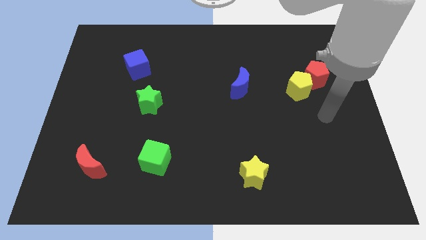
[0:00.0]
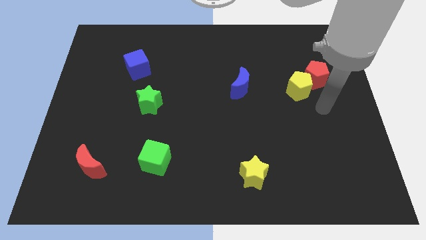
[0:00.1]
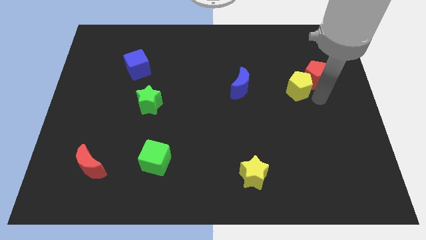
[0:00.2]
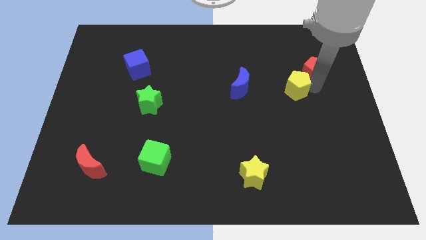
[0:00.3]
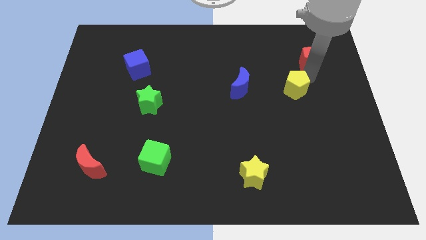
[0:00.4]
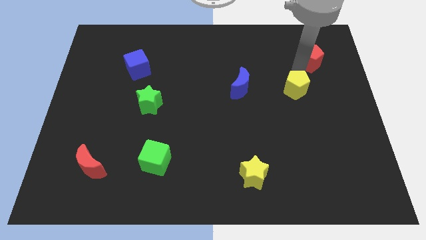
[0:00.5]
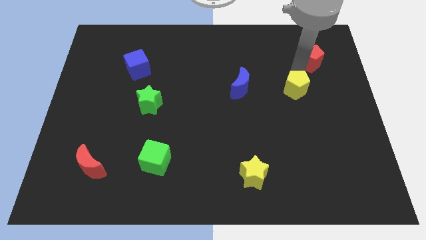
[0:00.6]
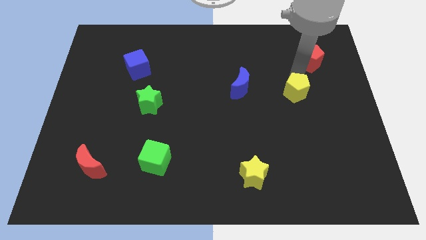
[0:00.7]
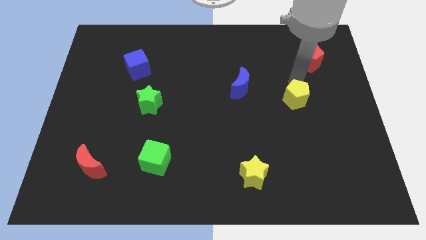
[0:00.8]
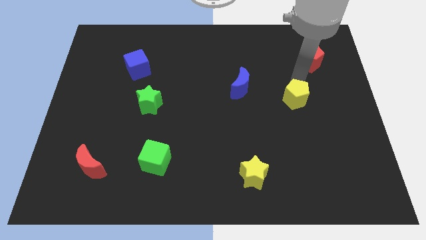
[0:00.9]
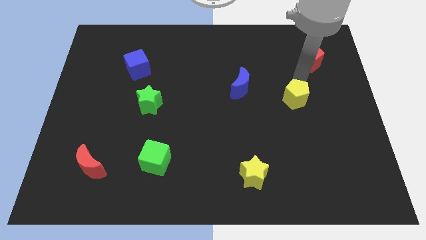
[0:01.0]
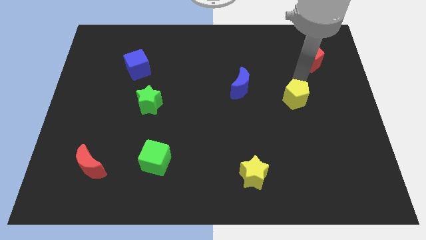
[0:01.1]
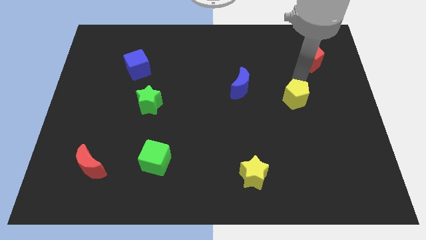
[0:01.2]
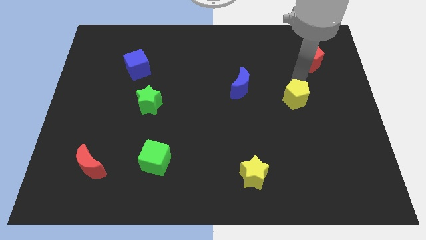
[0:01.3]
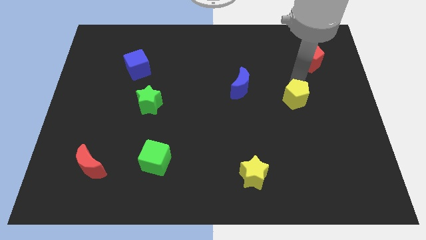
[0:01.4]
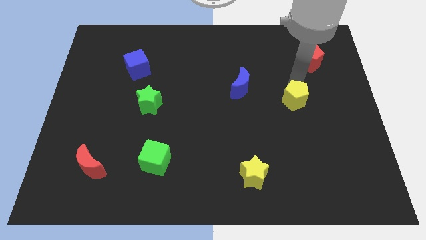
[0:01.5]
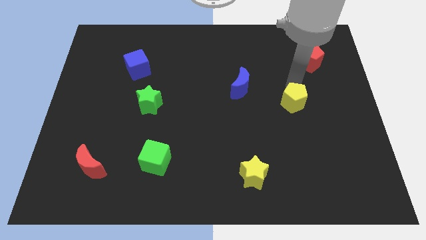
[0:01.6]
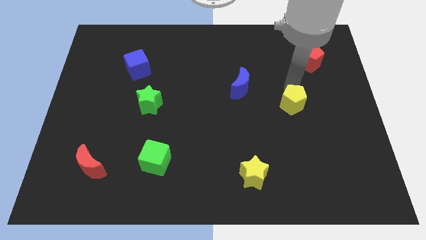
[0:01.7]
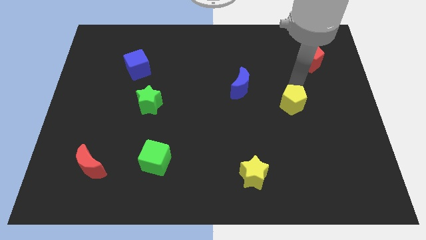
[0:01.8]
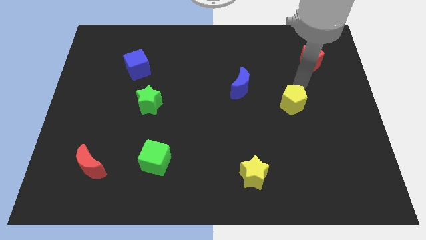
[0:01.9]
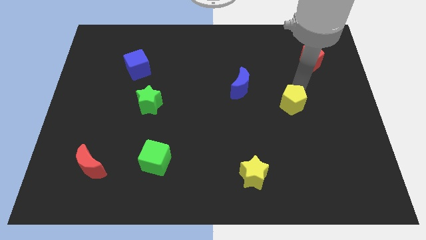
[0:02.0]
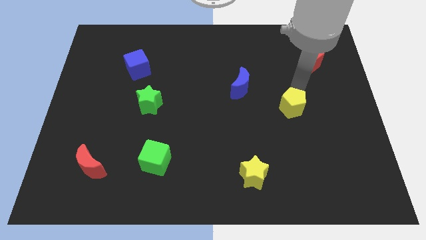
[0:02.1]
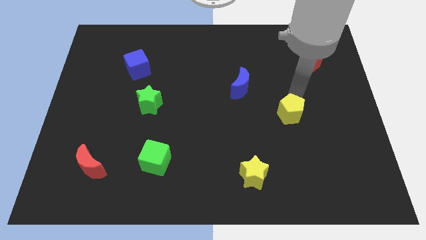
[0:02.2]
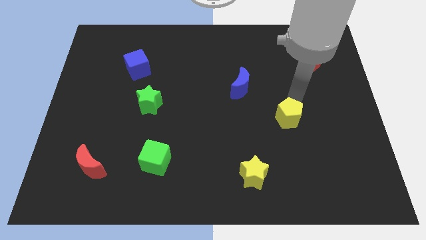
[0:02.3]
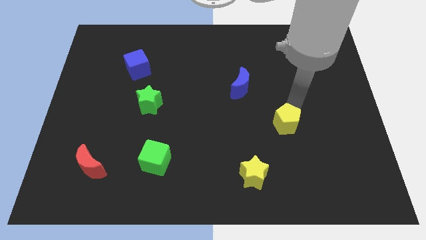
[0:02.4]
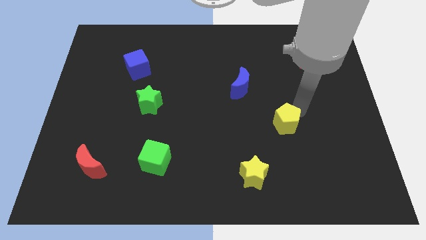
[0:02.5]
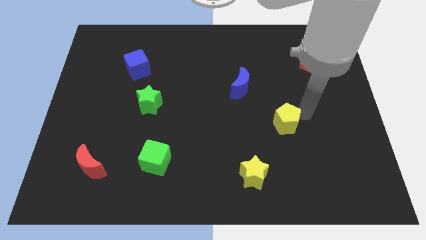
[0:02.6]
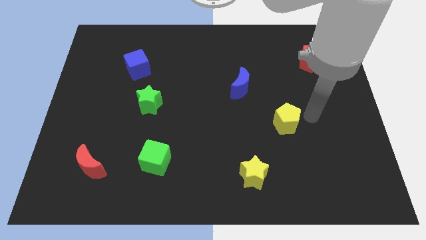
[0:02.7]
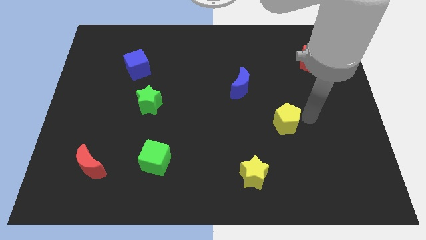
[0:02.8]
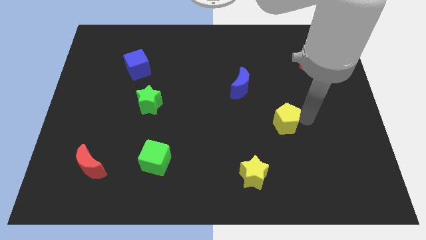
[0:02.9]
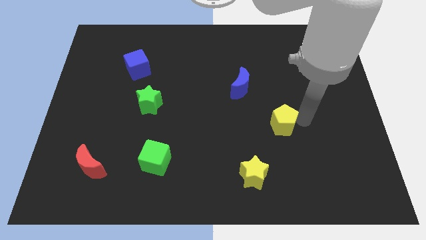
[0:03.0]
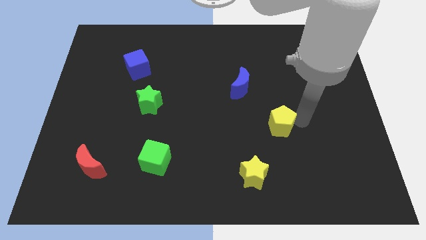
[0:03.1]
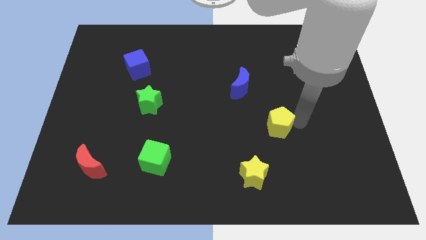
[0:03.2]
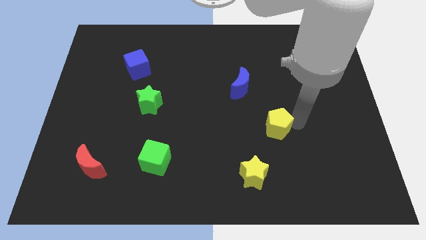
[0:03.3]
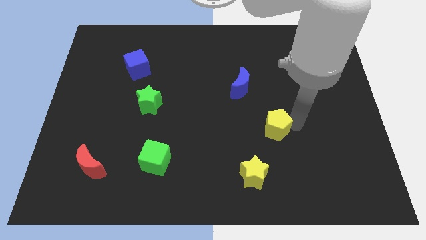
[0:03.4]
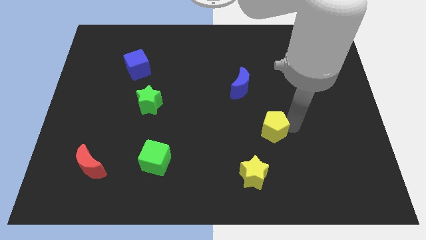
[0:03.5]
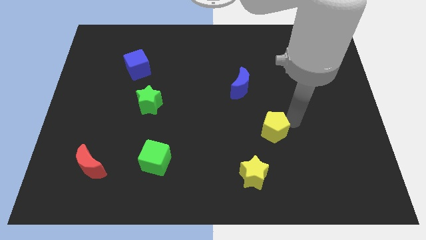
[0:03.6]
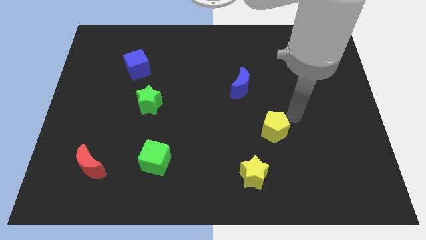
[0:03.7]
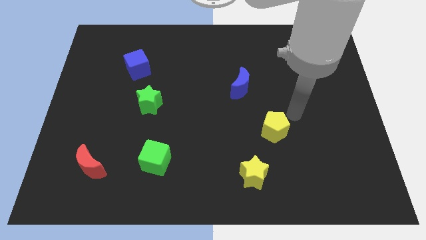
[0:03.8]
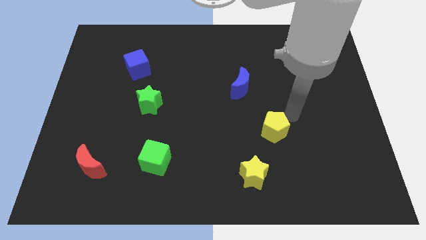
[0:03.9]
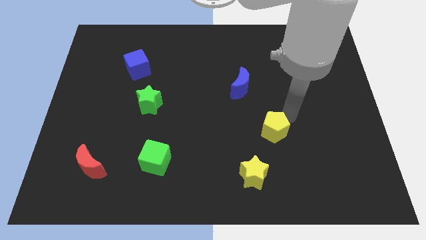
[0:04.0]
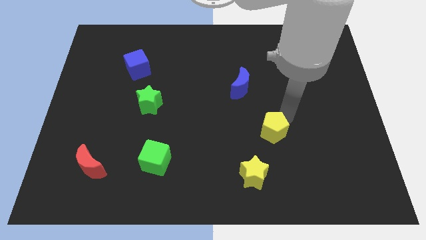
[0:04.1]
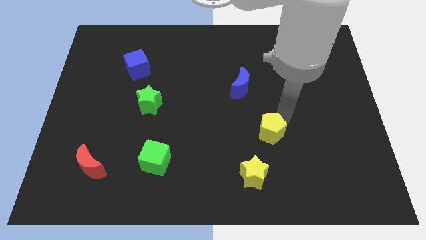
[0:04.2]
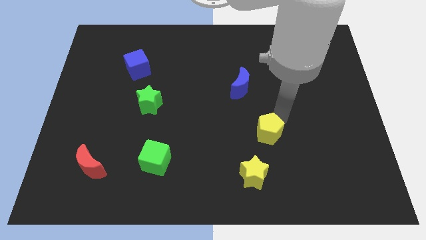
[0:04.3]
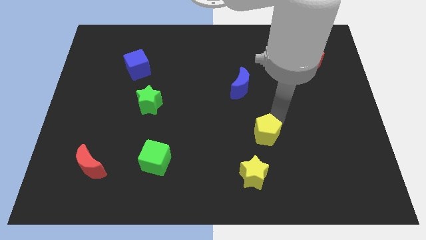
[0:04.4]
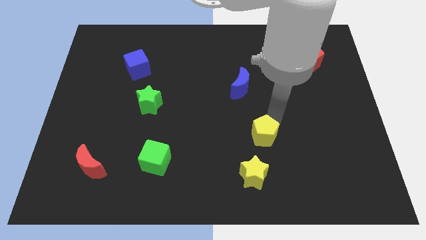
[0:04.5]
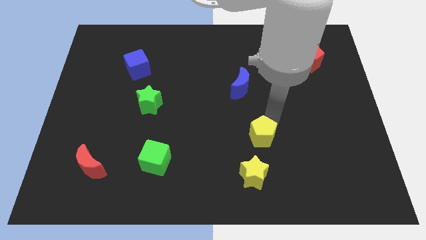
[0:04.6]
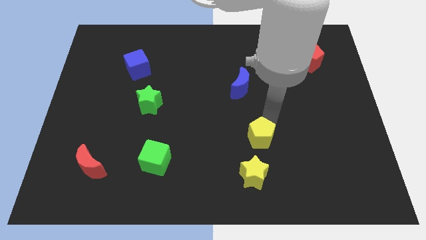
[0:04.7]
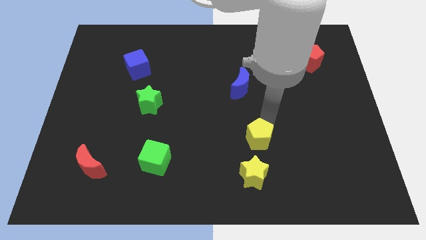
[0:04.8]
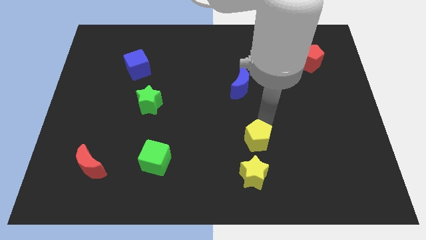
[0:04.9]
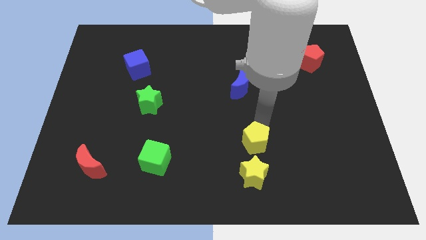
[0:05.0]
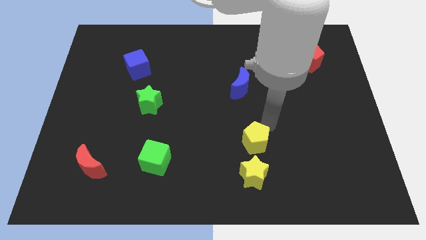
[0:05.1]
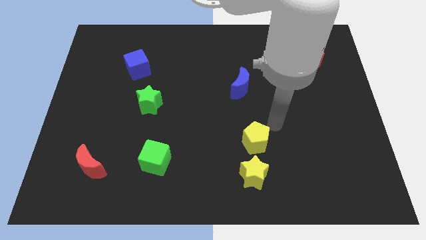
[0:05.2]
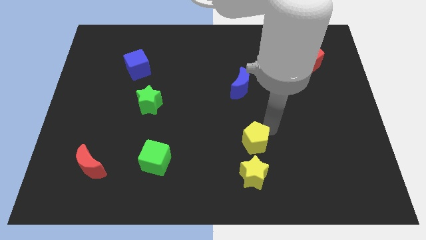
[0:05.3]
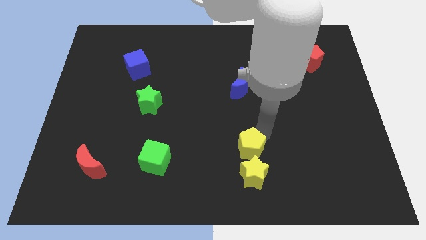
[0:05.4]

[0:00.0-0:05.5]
slide the yellow pentagon downwards and left

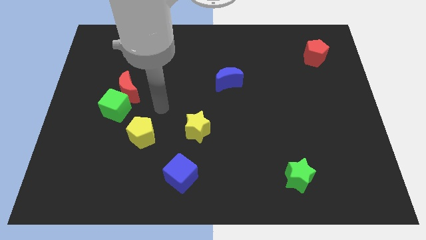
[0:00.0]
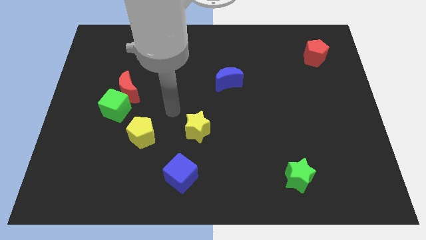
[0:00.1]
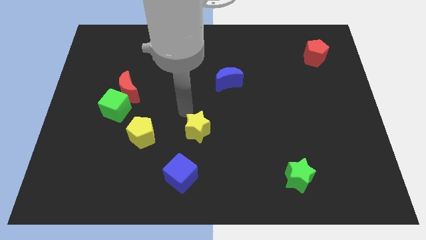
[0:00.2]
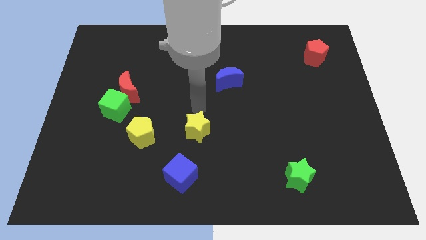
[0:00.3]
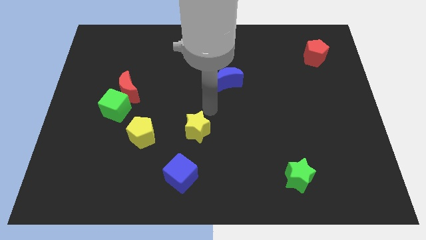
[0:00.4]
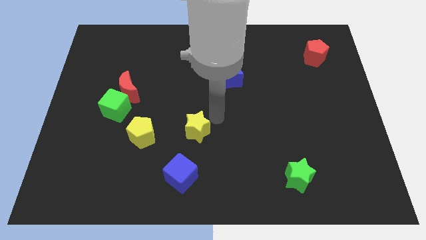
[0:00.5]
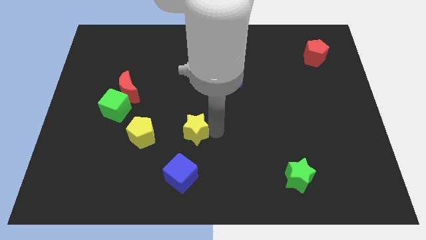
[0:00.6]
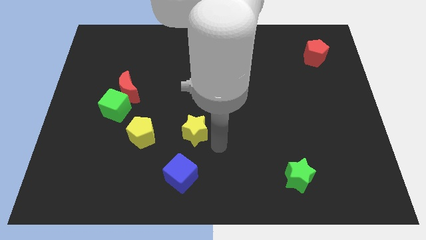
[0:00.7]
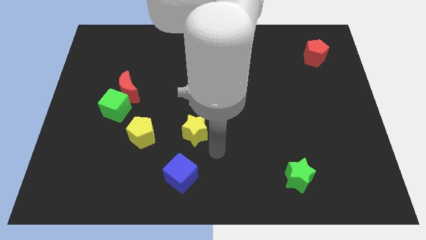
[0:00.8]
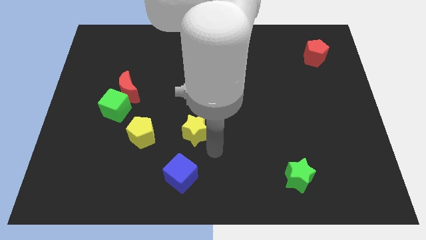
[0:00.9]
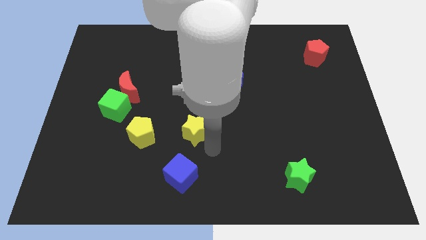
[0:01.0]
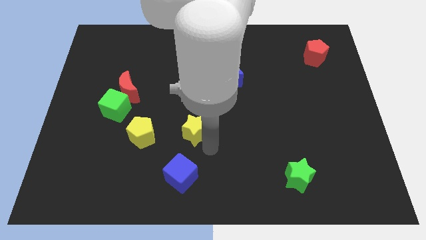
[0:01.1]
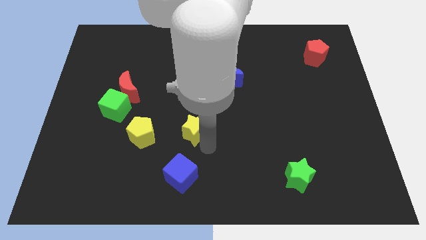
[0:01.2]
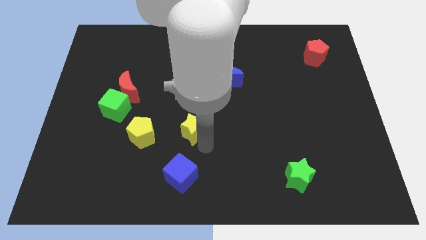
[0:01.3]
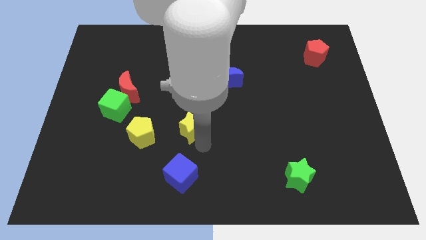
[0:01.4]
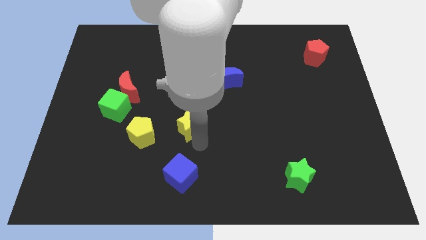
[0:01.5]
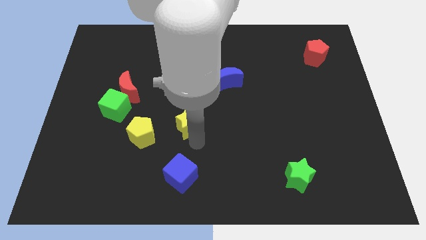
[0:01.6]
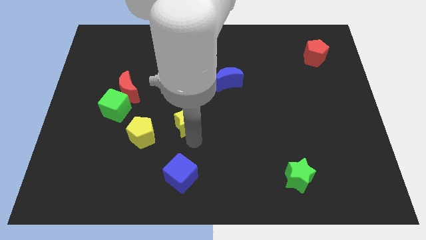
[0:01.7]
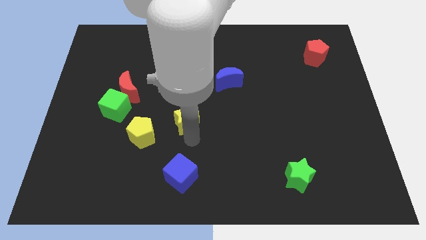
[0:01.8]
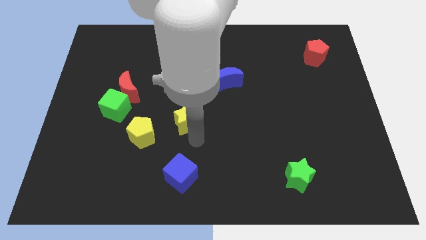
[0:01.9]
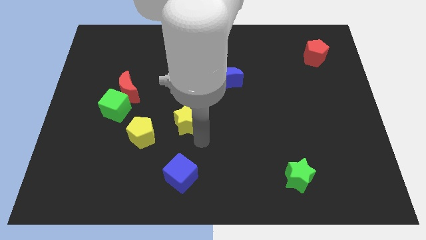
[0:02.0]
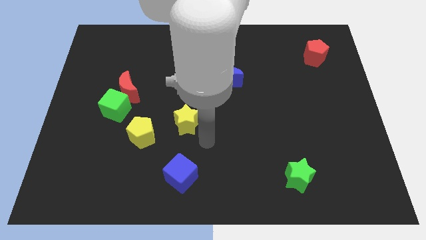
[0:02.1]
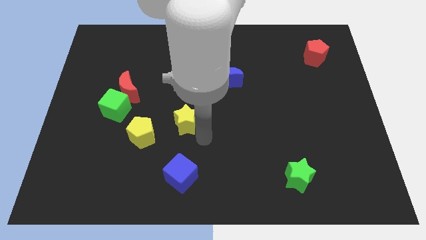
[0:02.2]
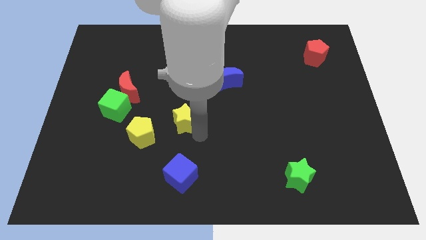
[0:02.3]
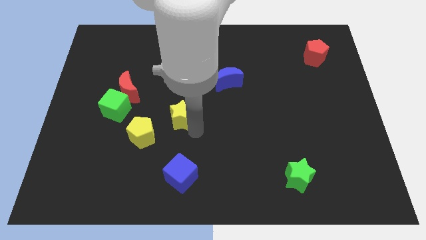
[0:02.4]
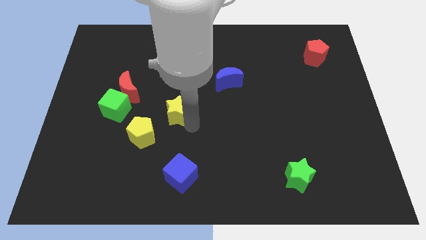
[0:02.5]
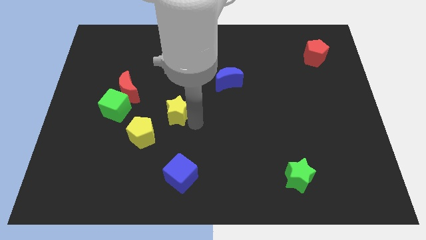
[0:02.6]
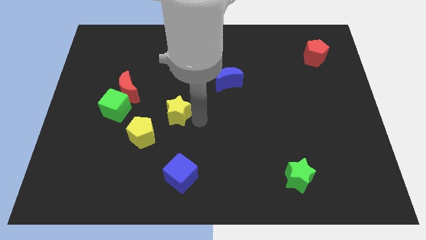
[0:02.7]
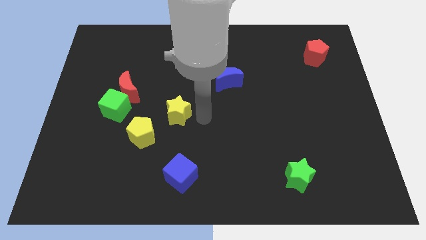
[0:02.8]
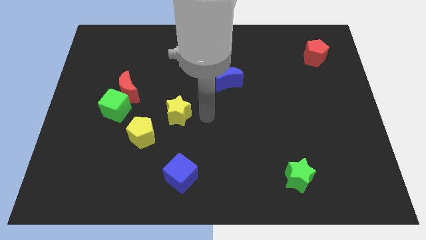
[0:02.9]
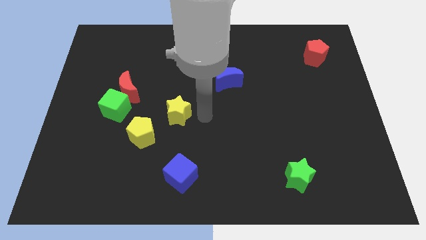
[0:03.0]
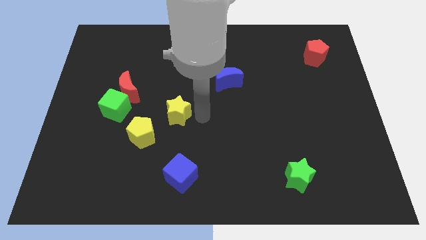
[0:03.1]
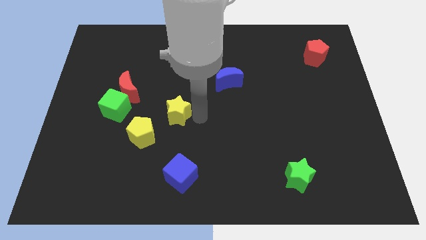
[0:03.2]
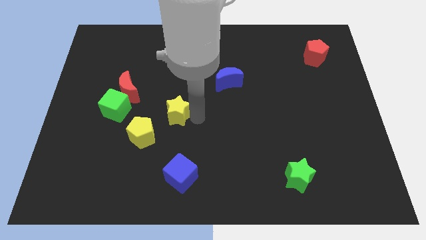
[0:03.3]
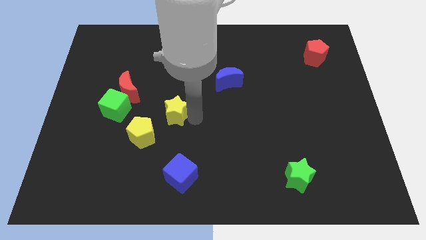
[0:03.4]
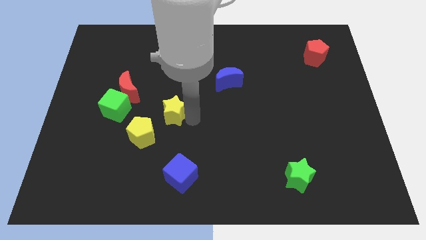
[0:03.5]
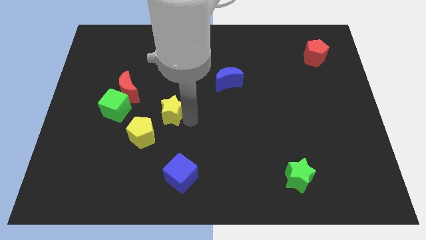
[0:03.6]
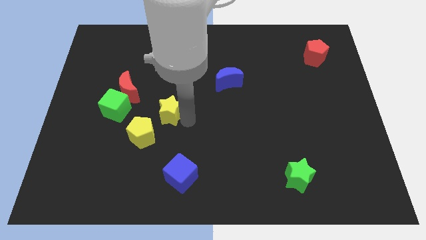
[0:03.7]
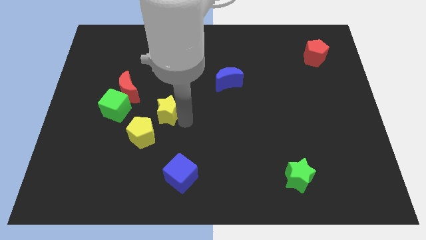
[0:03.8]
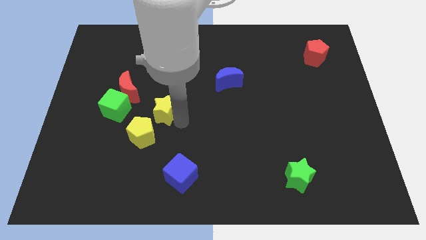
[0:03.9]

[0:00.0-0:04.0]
slightly push the yellow star to the left
